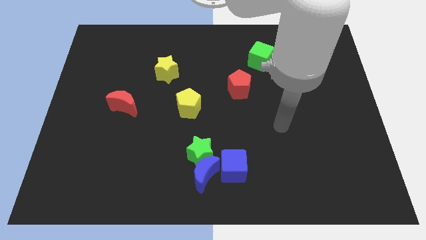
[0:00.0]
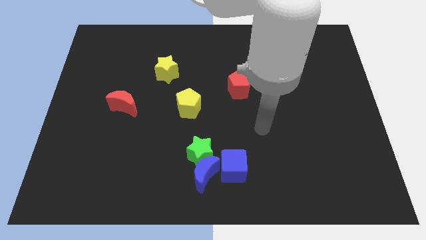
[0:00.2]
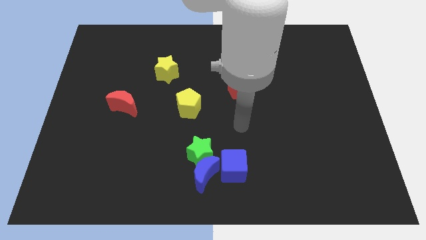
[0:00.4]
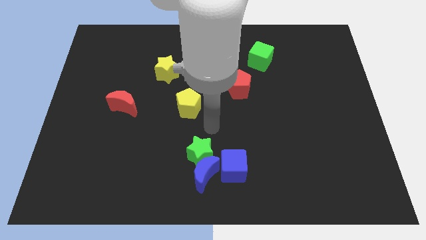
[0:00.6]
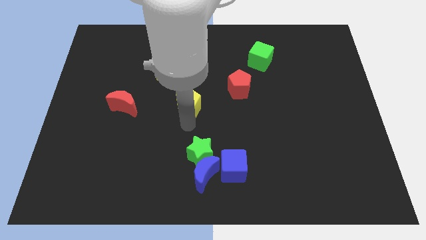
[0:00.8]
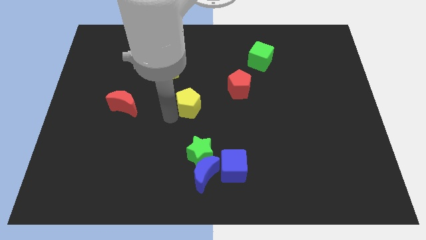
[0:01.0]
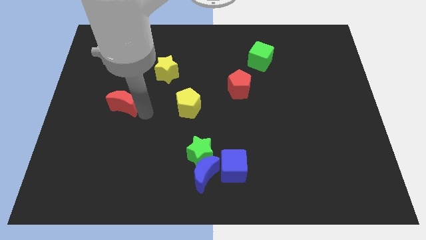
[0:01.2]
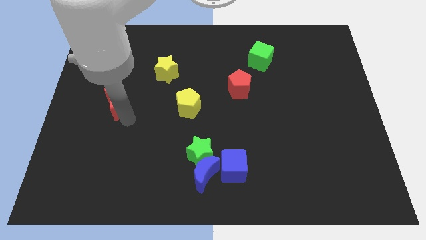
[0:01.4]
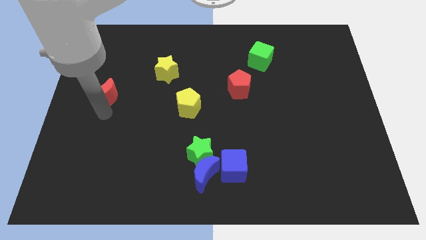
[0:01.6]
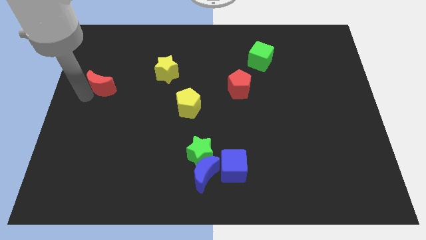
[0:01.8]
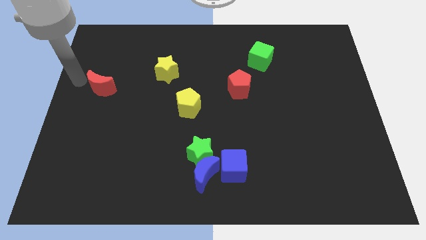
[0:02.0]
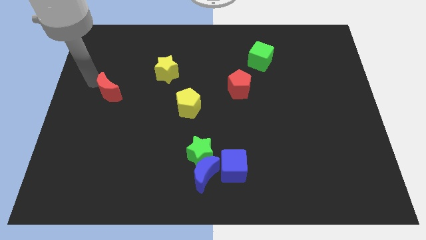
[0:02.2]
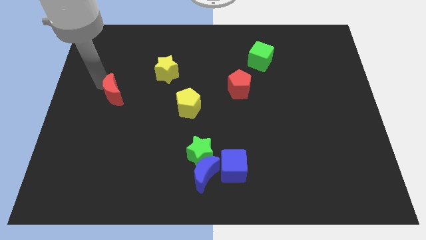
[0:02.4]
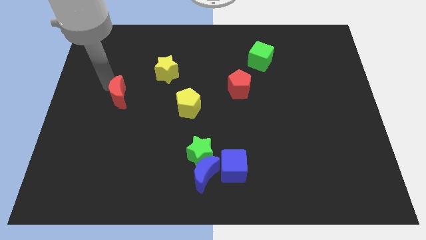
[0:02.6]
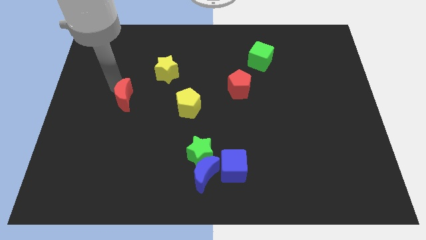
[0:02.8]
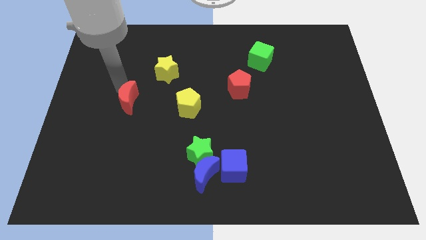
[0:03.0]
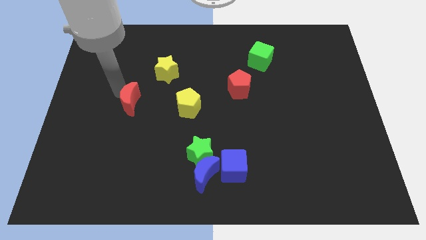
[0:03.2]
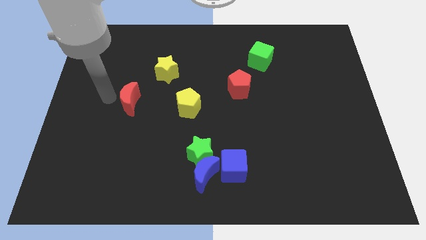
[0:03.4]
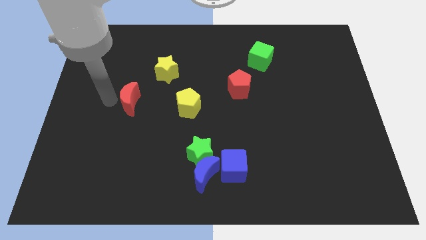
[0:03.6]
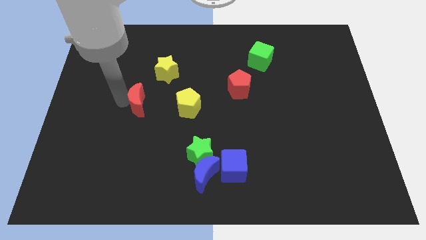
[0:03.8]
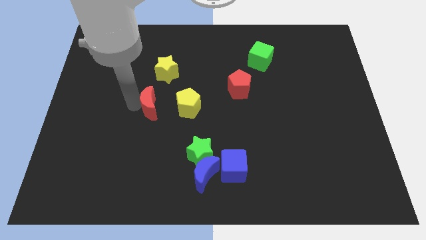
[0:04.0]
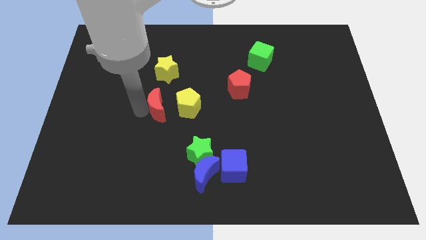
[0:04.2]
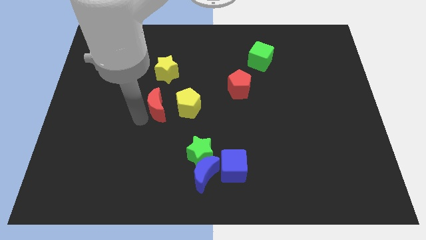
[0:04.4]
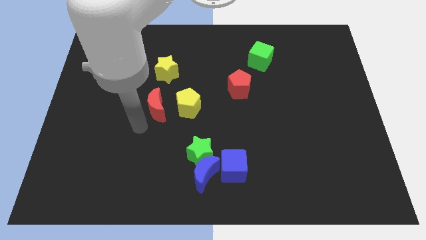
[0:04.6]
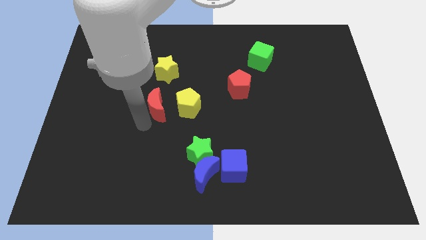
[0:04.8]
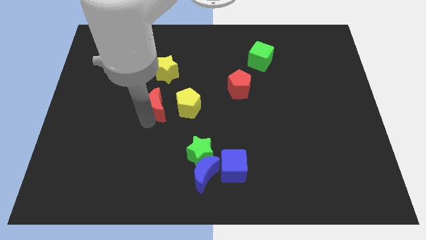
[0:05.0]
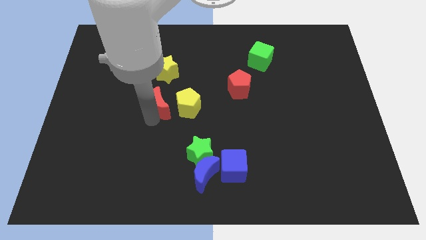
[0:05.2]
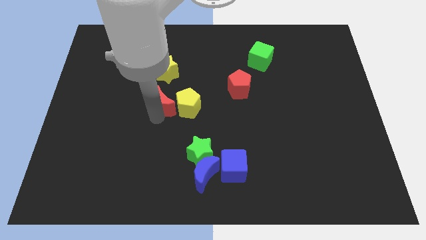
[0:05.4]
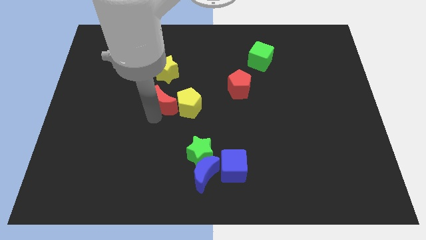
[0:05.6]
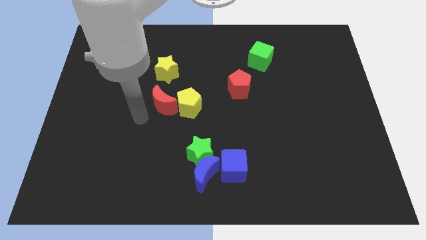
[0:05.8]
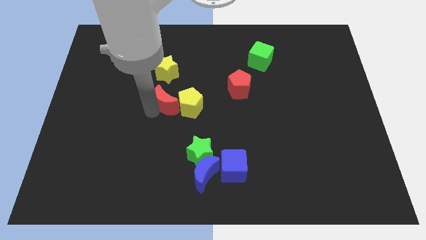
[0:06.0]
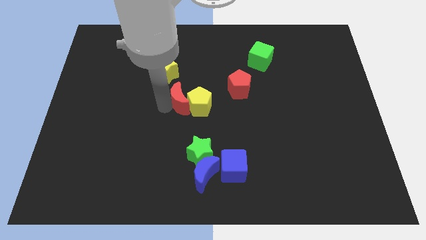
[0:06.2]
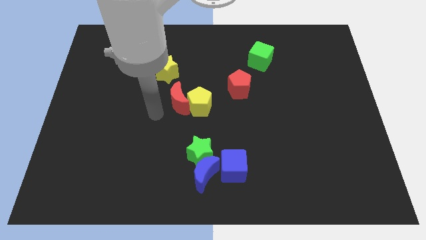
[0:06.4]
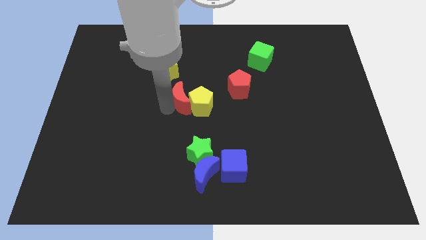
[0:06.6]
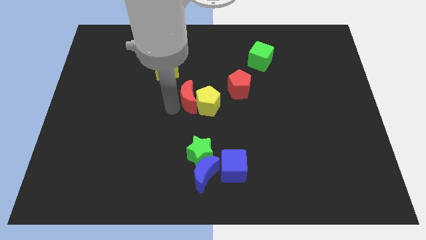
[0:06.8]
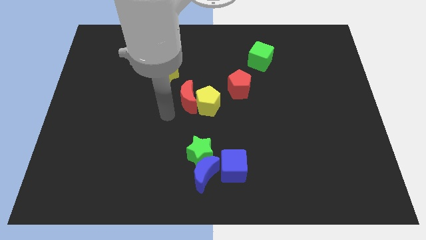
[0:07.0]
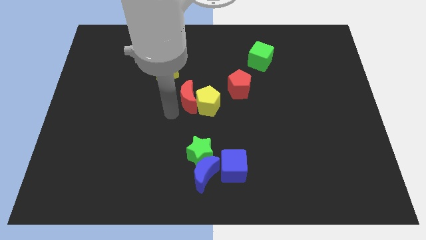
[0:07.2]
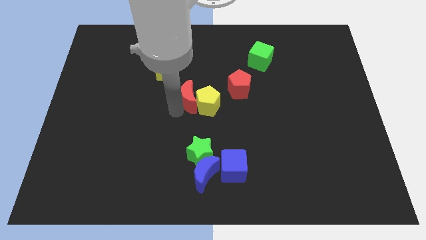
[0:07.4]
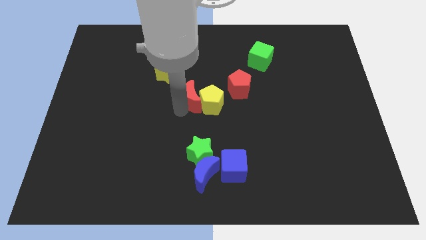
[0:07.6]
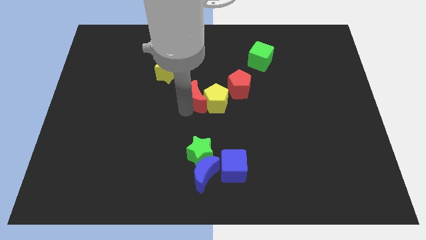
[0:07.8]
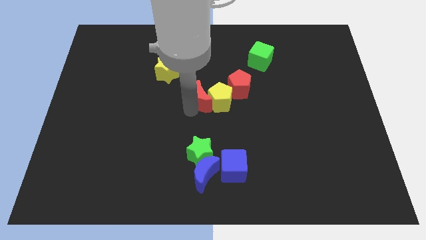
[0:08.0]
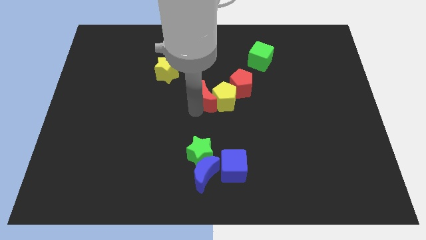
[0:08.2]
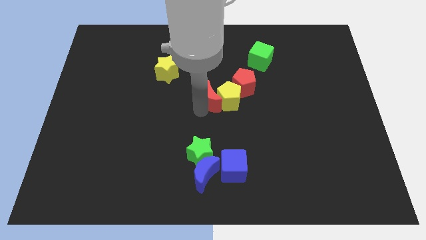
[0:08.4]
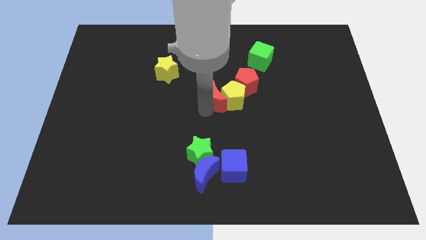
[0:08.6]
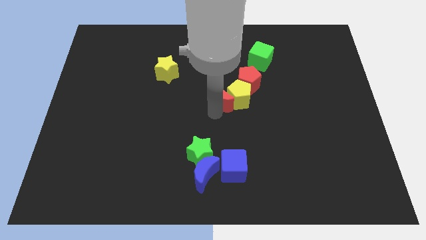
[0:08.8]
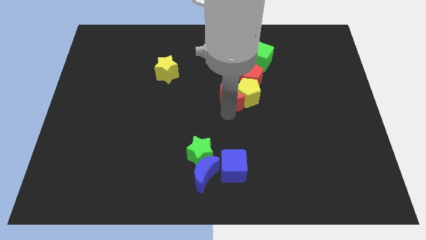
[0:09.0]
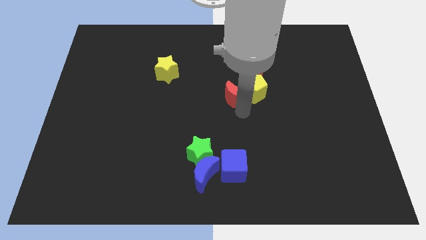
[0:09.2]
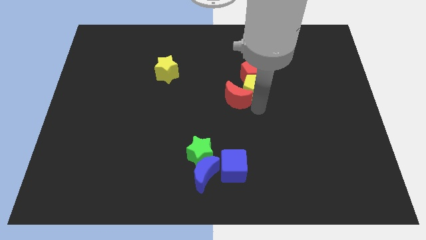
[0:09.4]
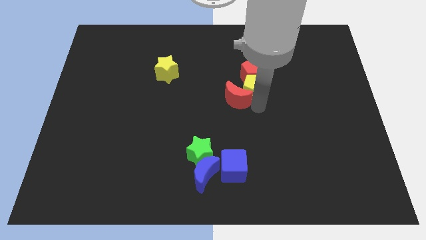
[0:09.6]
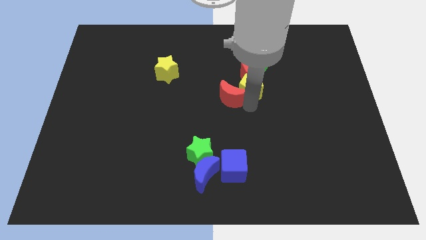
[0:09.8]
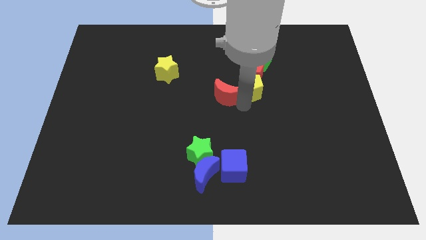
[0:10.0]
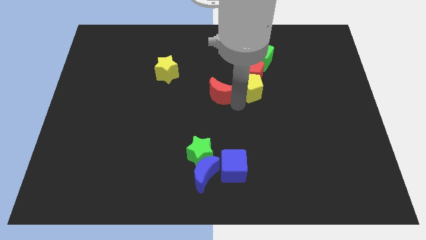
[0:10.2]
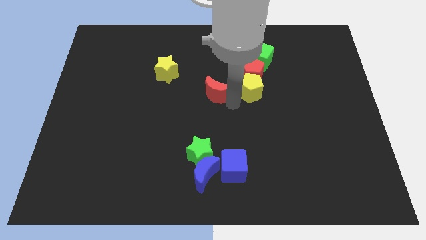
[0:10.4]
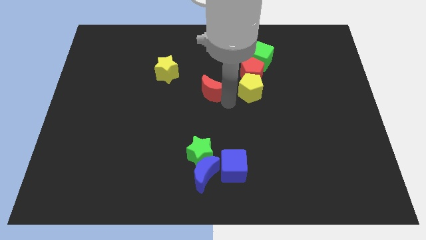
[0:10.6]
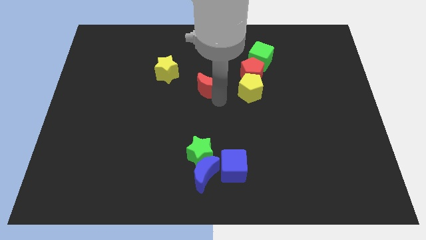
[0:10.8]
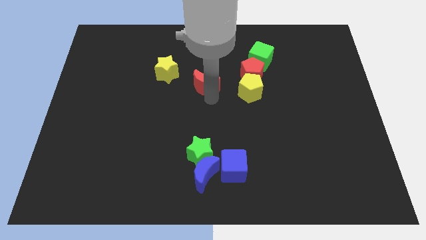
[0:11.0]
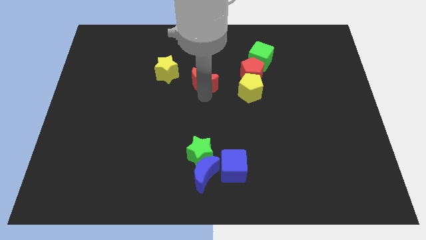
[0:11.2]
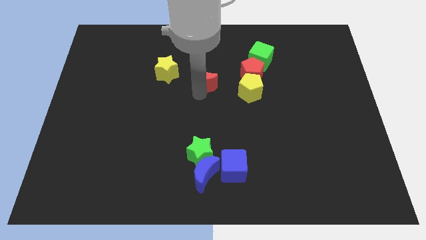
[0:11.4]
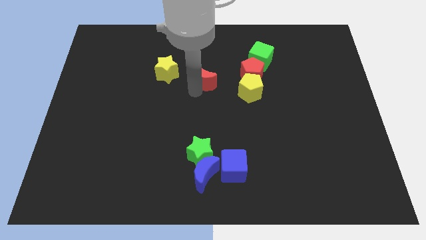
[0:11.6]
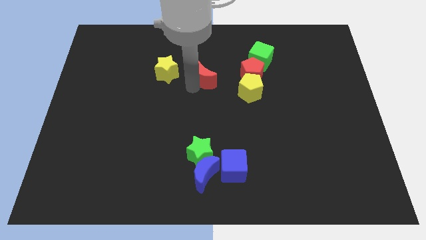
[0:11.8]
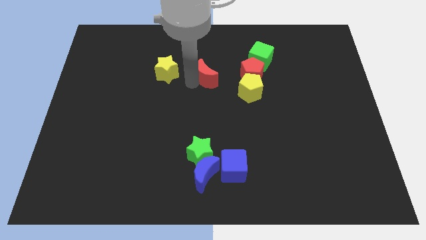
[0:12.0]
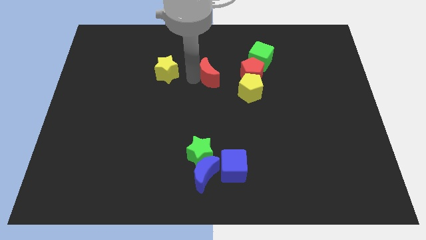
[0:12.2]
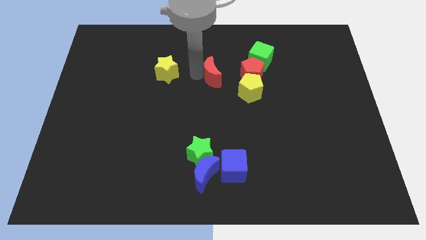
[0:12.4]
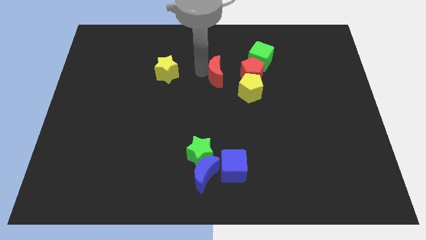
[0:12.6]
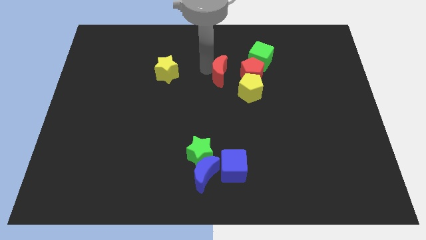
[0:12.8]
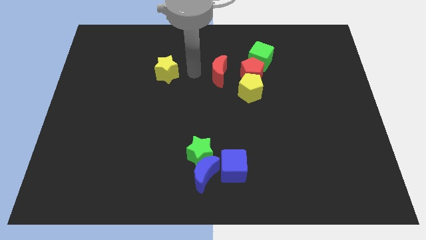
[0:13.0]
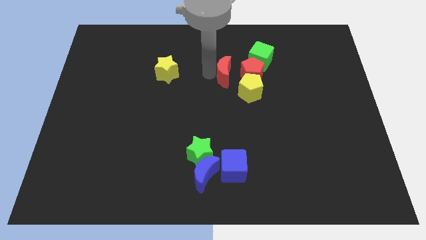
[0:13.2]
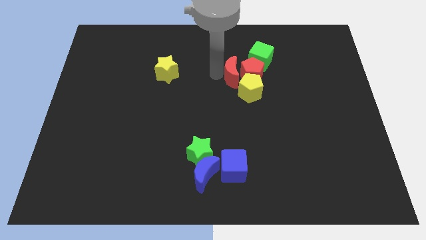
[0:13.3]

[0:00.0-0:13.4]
move the red moon next to the red pentagon
